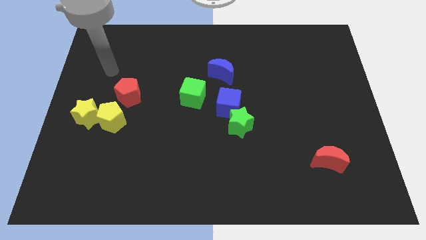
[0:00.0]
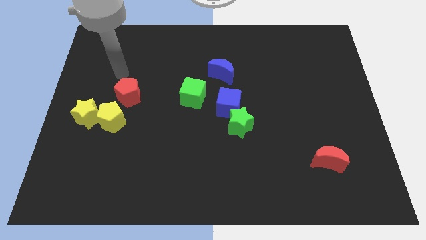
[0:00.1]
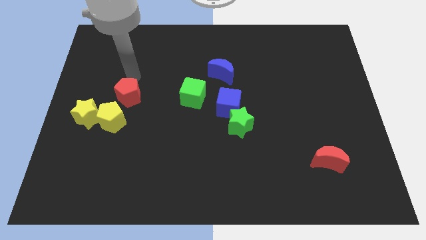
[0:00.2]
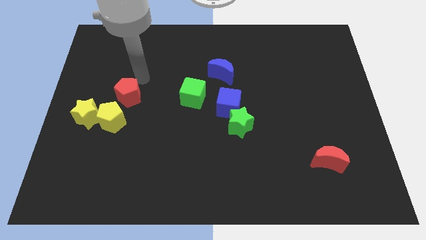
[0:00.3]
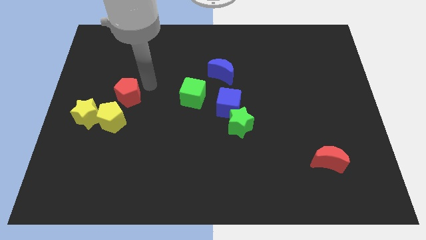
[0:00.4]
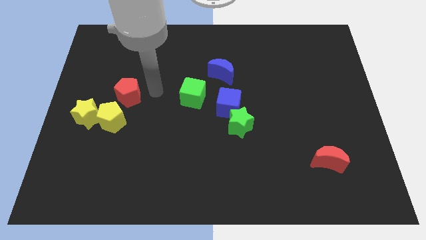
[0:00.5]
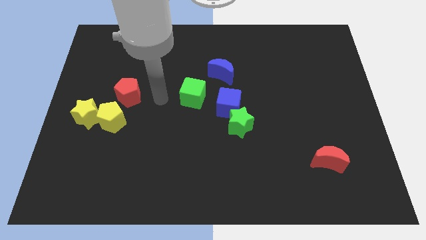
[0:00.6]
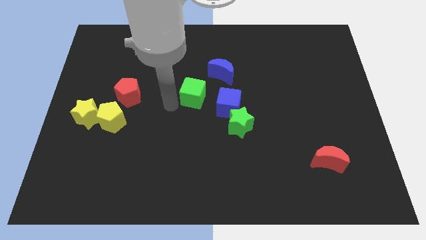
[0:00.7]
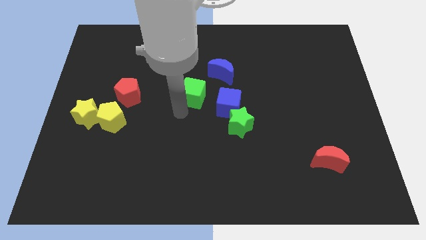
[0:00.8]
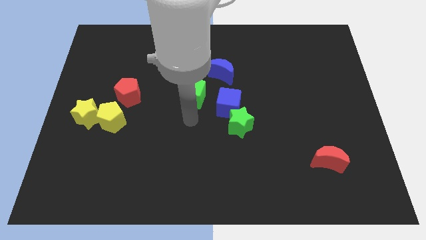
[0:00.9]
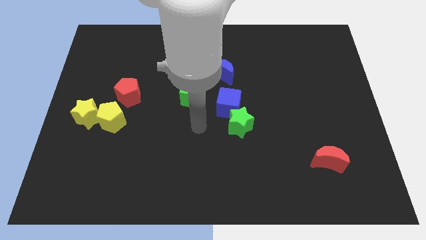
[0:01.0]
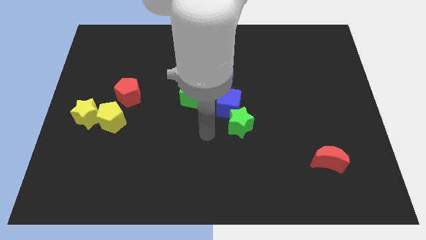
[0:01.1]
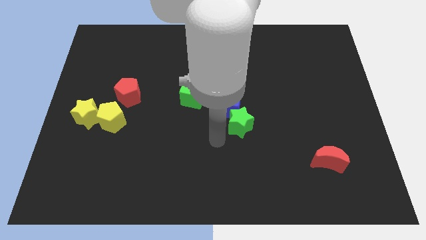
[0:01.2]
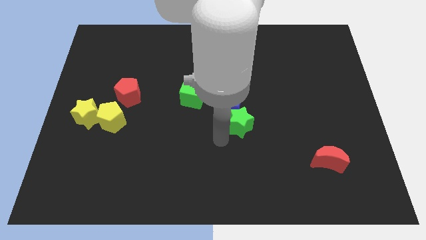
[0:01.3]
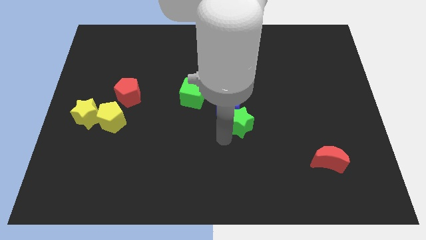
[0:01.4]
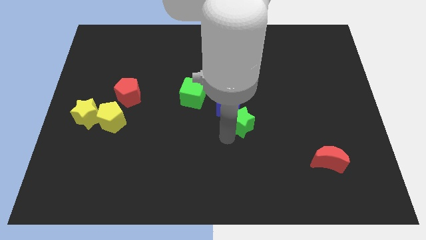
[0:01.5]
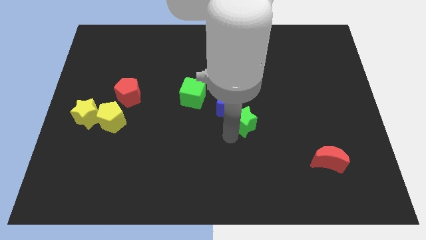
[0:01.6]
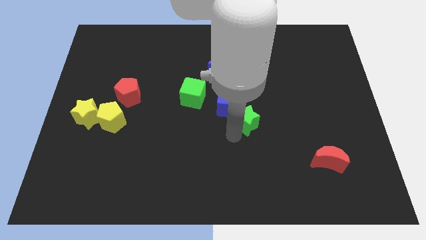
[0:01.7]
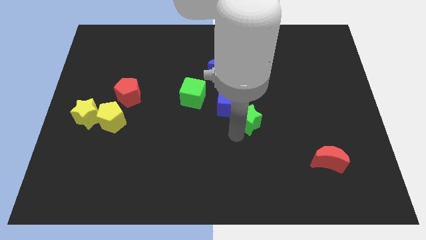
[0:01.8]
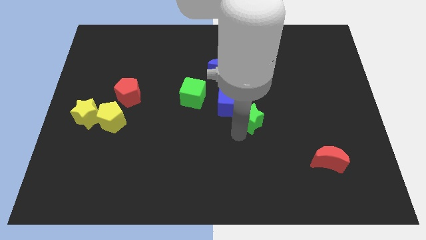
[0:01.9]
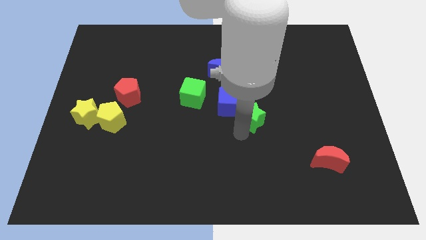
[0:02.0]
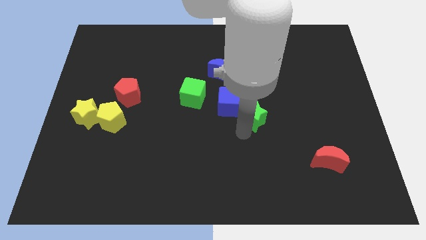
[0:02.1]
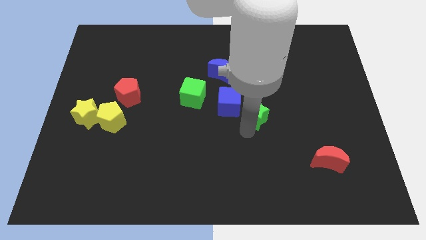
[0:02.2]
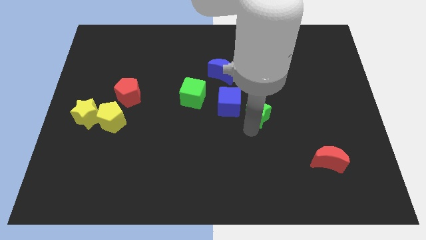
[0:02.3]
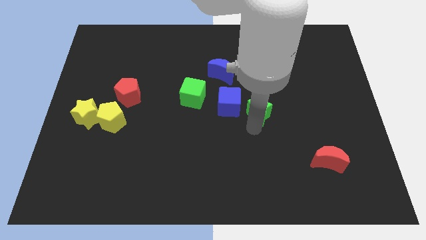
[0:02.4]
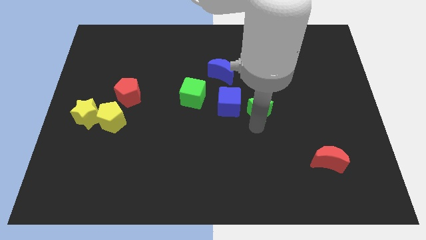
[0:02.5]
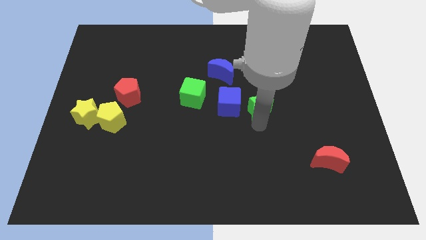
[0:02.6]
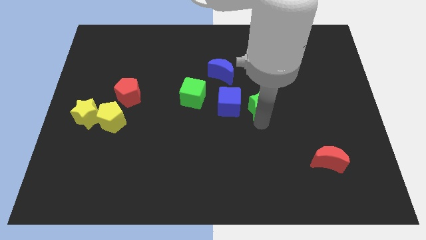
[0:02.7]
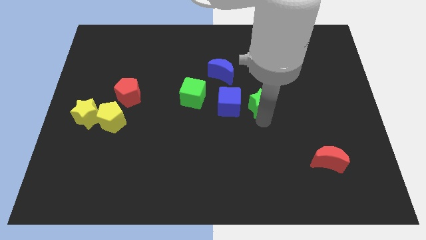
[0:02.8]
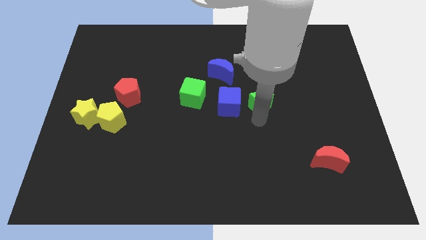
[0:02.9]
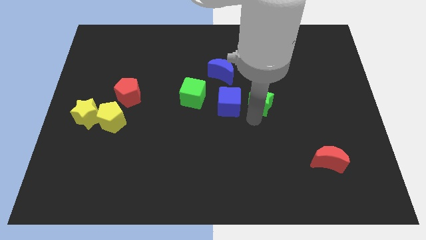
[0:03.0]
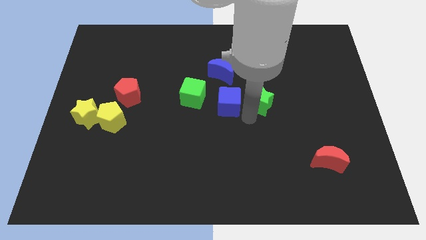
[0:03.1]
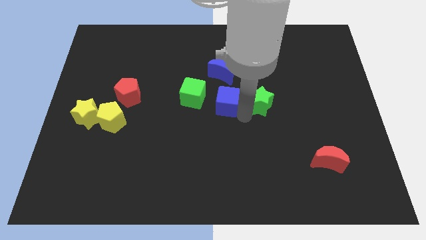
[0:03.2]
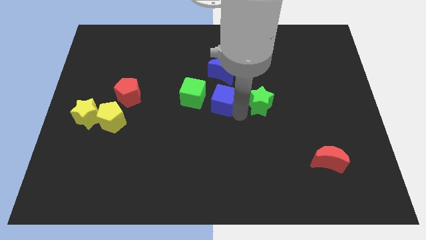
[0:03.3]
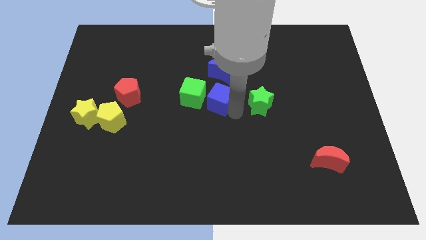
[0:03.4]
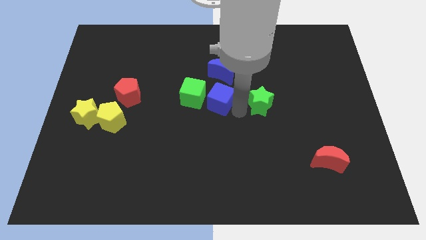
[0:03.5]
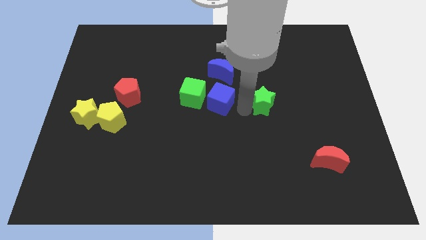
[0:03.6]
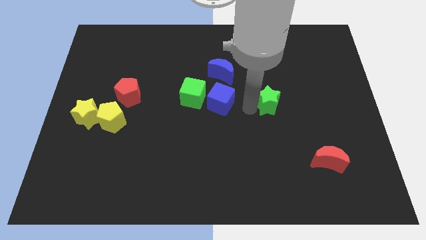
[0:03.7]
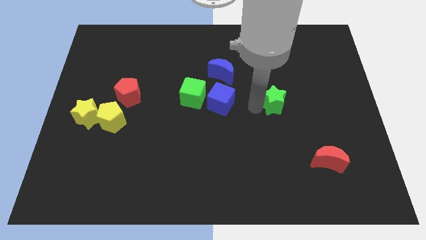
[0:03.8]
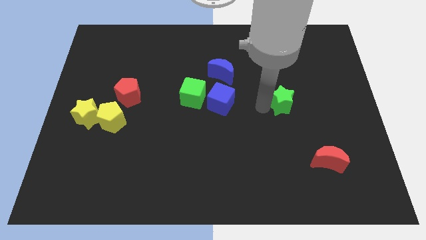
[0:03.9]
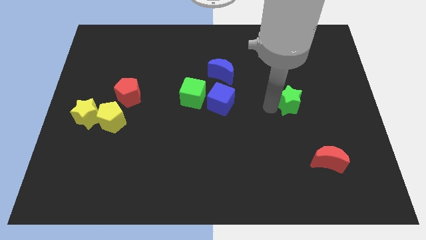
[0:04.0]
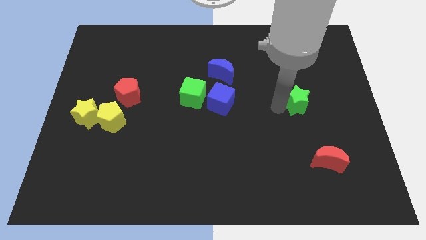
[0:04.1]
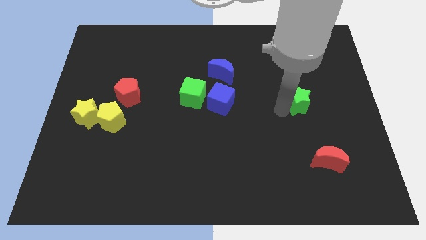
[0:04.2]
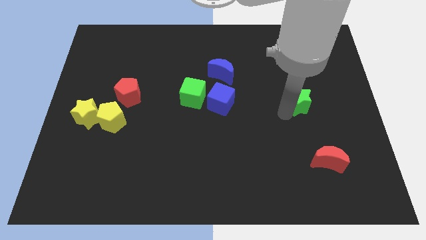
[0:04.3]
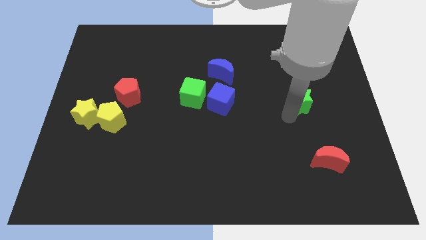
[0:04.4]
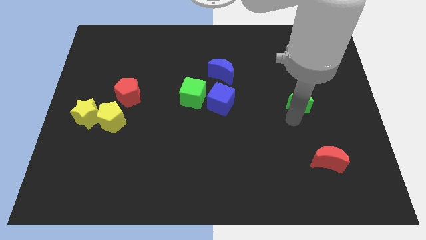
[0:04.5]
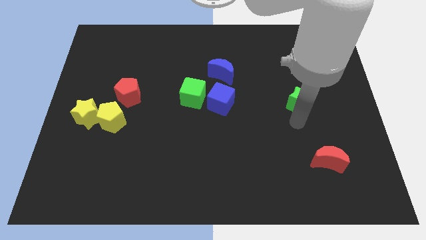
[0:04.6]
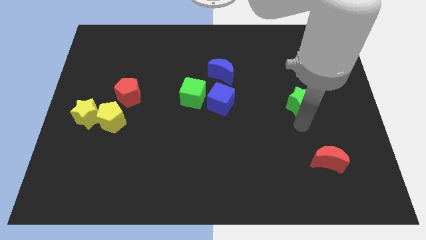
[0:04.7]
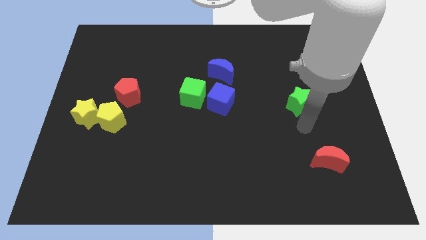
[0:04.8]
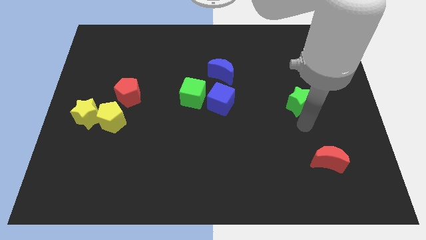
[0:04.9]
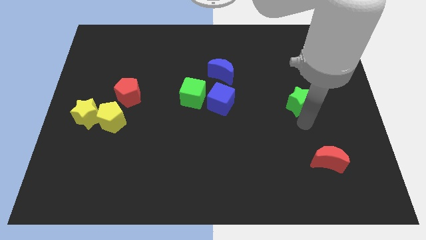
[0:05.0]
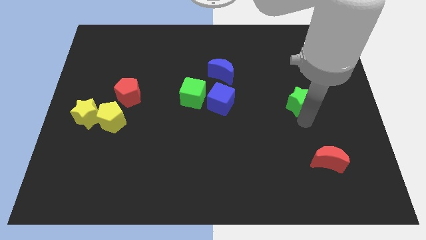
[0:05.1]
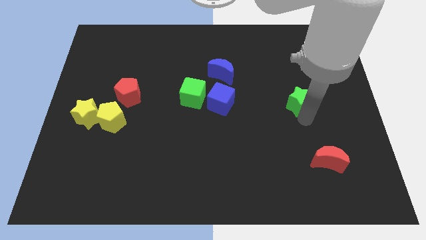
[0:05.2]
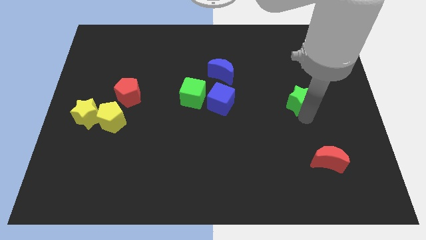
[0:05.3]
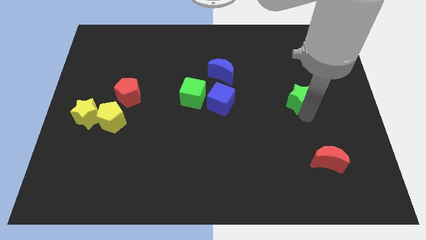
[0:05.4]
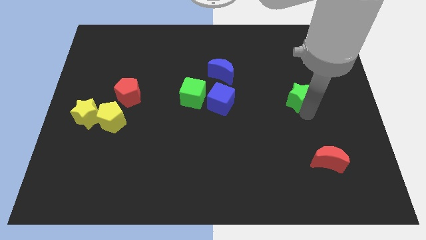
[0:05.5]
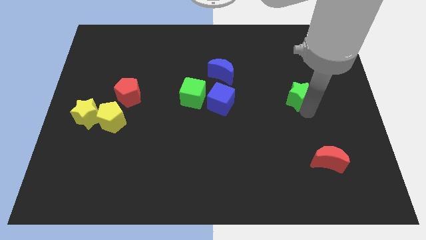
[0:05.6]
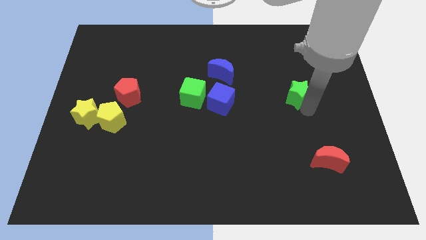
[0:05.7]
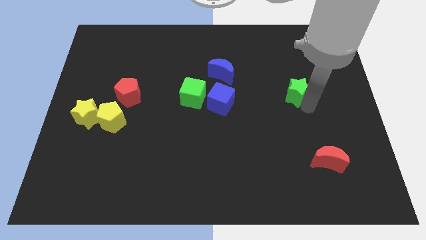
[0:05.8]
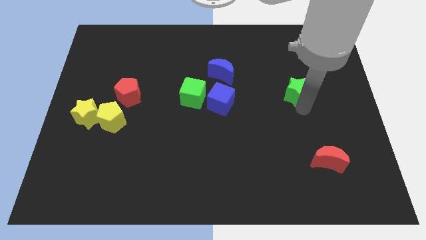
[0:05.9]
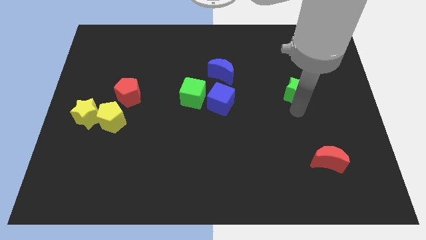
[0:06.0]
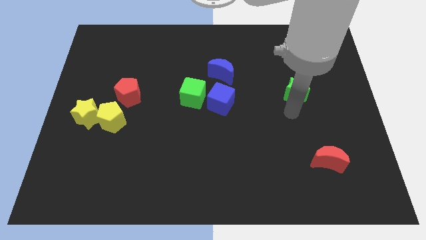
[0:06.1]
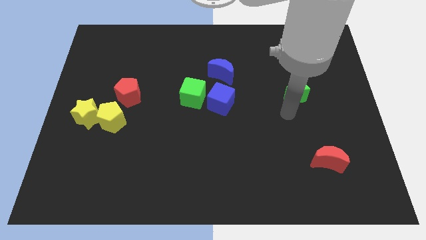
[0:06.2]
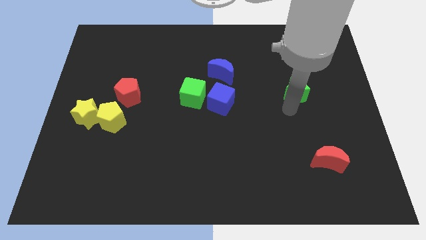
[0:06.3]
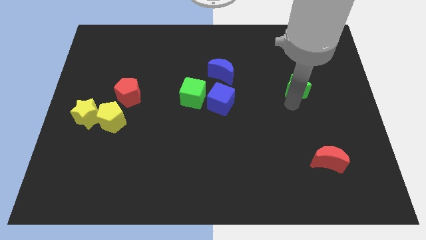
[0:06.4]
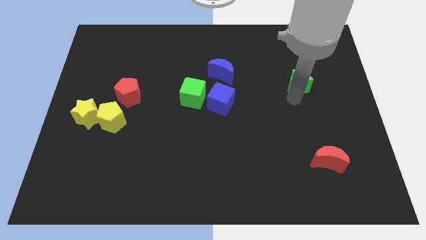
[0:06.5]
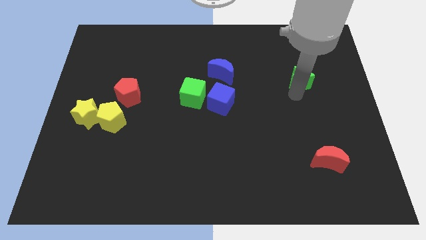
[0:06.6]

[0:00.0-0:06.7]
push the green star up and then right

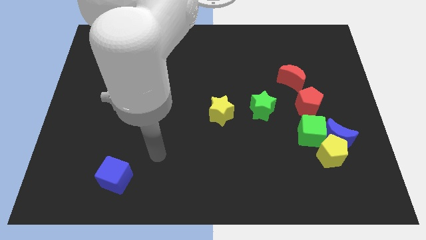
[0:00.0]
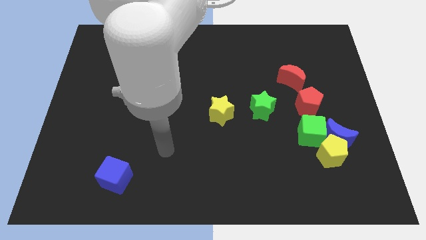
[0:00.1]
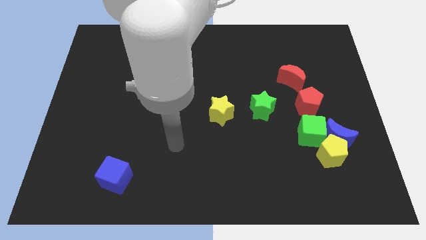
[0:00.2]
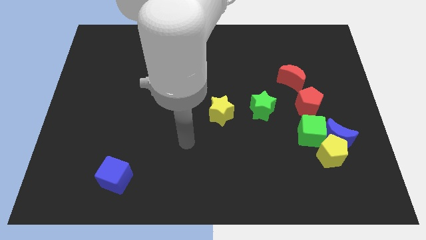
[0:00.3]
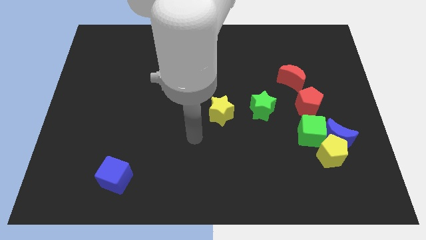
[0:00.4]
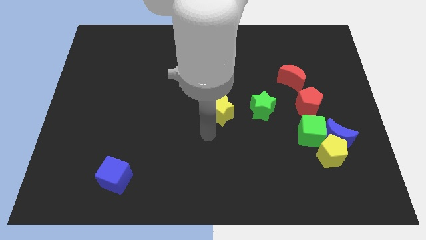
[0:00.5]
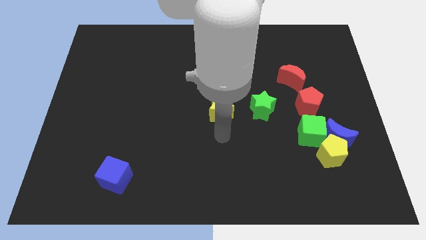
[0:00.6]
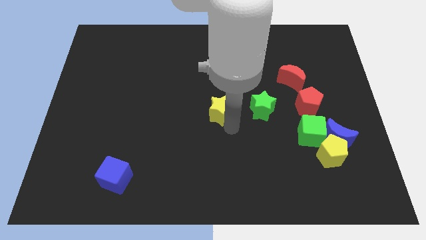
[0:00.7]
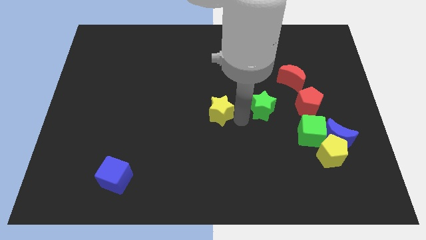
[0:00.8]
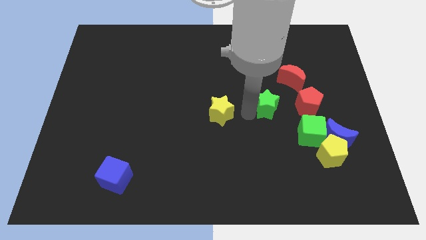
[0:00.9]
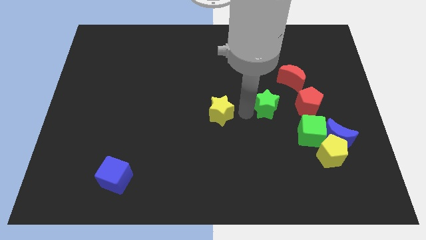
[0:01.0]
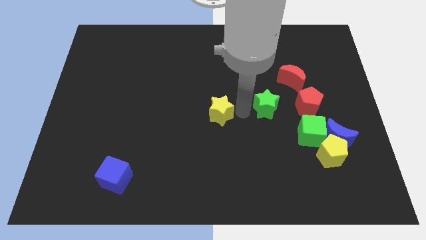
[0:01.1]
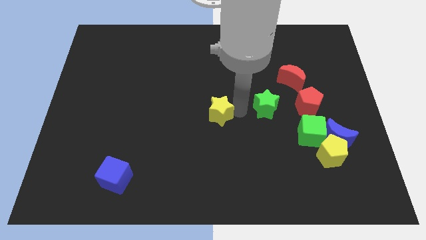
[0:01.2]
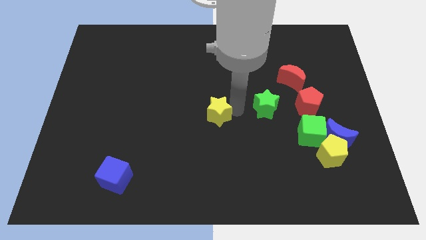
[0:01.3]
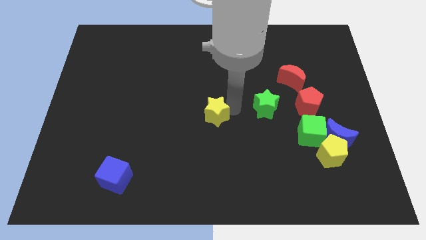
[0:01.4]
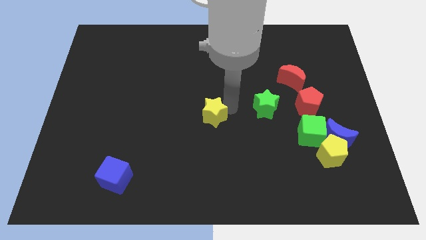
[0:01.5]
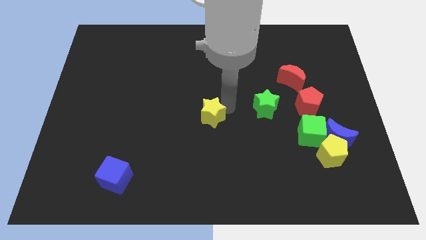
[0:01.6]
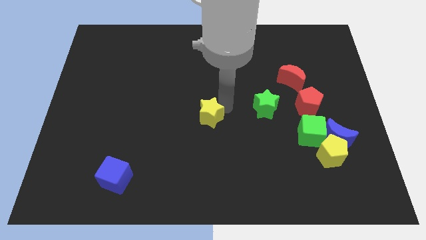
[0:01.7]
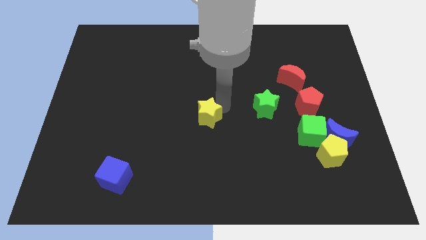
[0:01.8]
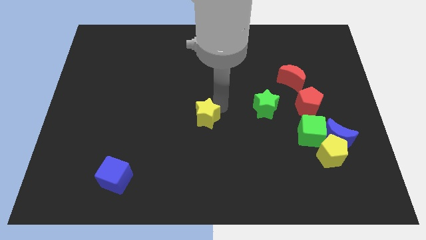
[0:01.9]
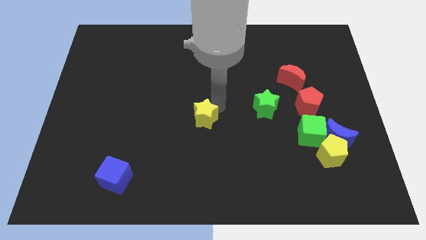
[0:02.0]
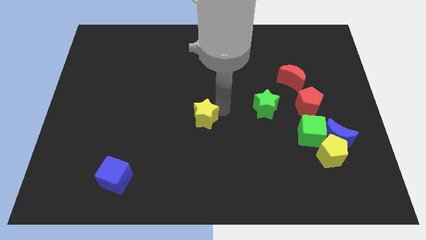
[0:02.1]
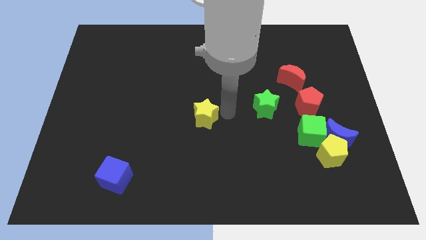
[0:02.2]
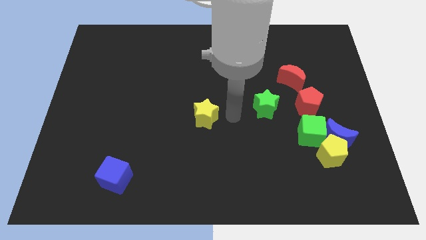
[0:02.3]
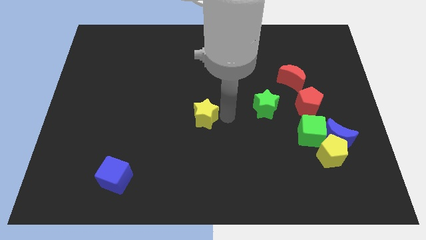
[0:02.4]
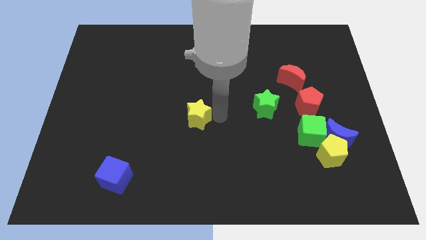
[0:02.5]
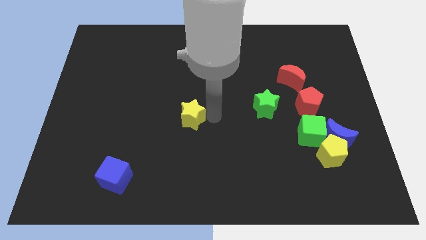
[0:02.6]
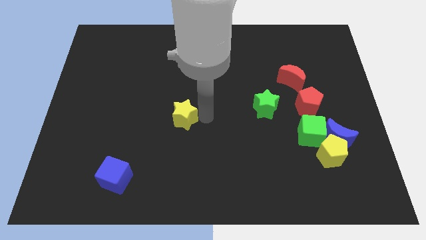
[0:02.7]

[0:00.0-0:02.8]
push the yellow star to the left a bit
